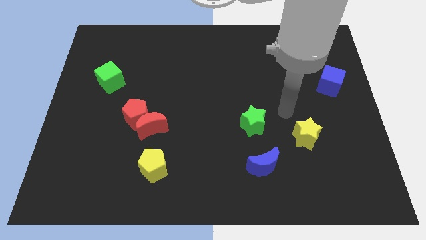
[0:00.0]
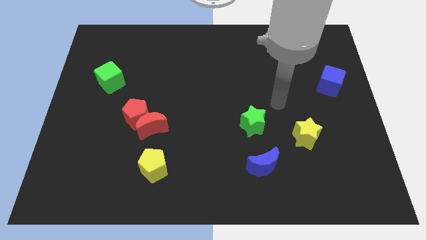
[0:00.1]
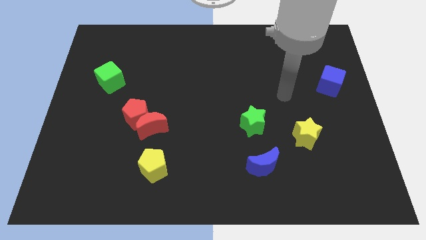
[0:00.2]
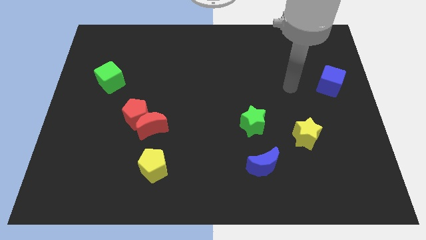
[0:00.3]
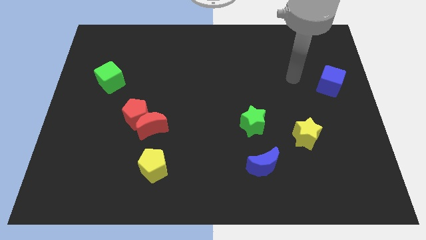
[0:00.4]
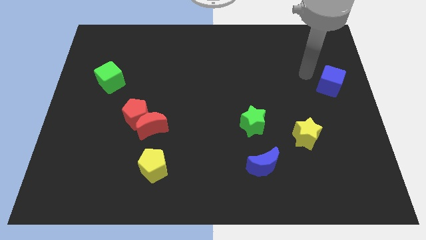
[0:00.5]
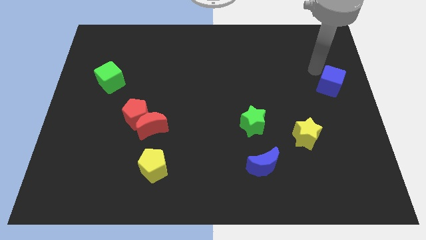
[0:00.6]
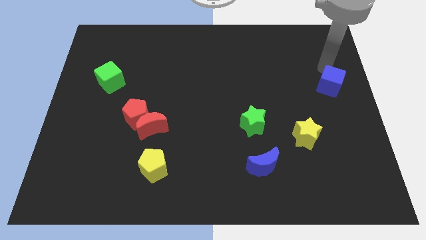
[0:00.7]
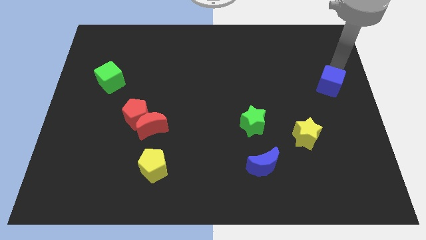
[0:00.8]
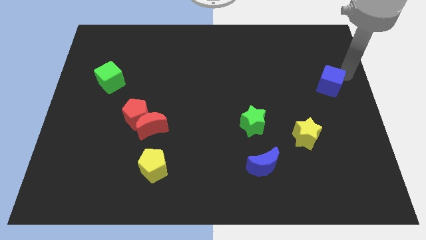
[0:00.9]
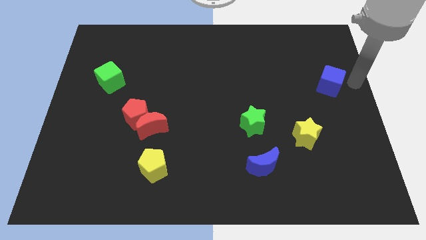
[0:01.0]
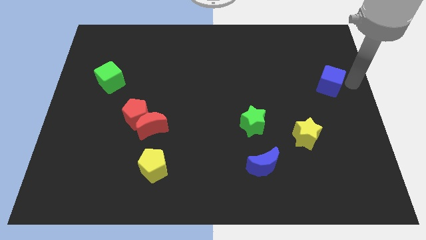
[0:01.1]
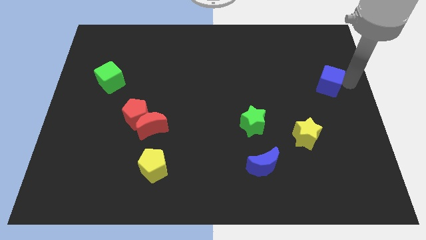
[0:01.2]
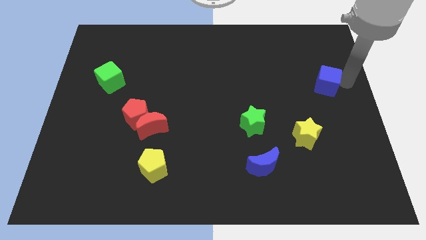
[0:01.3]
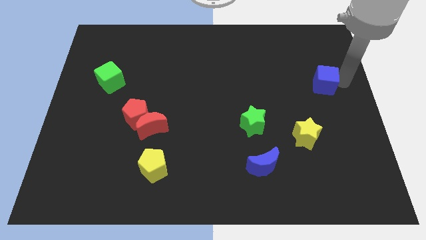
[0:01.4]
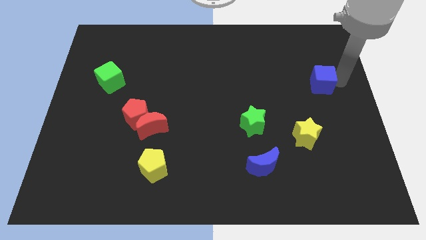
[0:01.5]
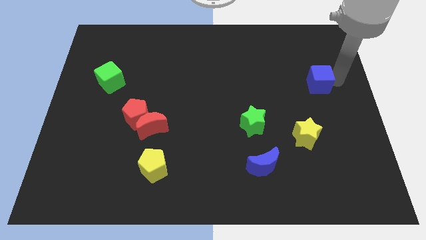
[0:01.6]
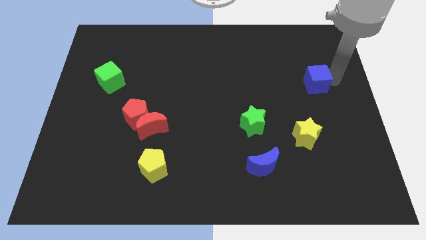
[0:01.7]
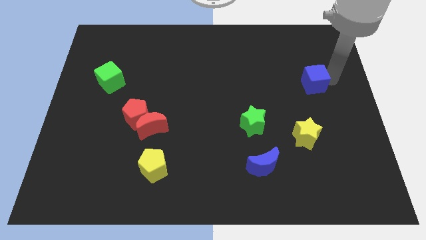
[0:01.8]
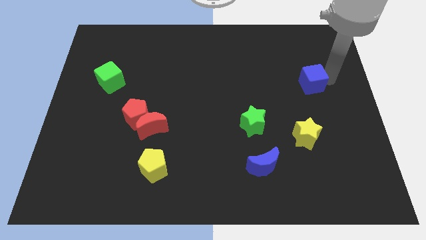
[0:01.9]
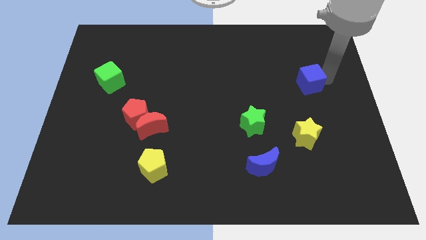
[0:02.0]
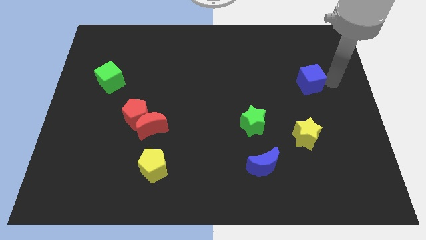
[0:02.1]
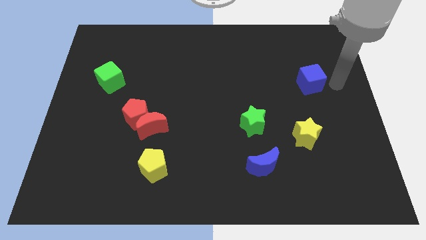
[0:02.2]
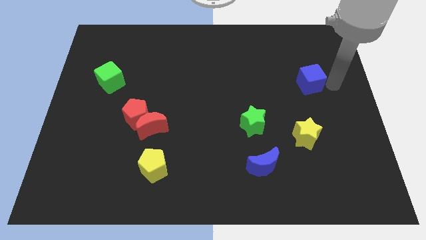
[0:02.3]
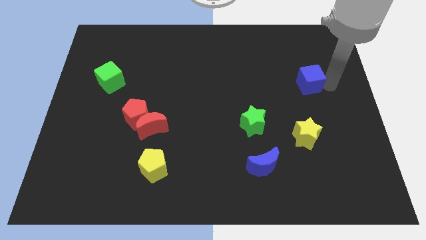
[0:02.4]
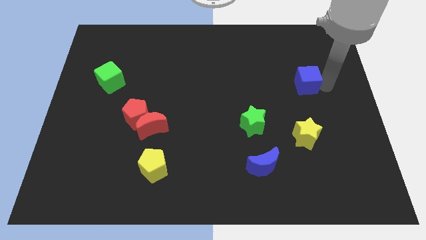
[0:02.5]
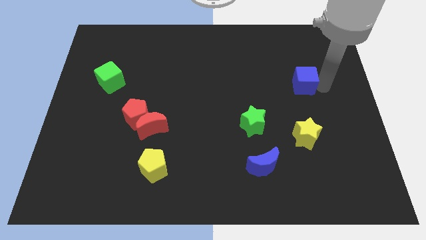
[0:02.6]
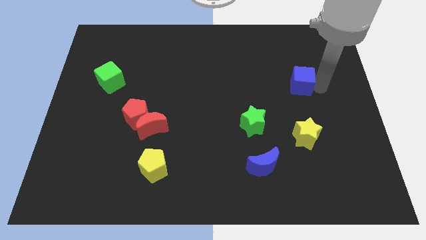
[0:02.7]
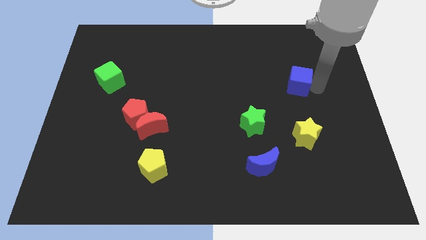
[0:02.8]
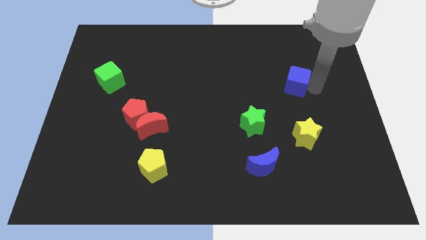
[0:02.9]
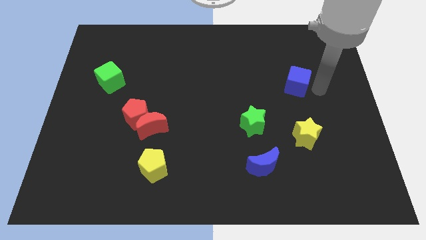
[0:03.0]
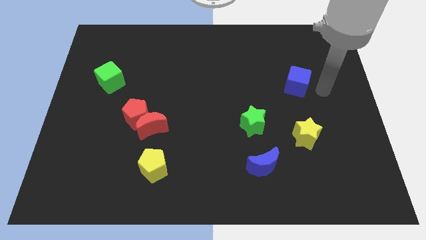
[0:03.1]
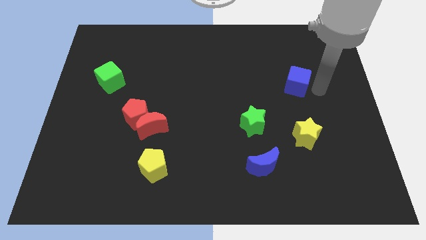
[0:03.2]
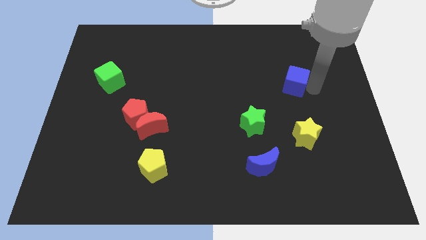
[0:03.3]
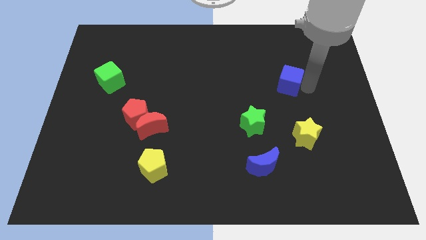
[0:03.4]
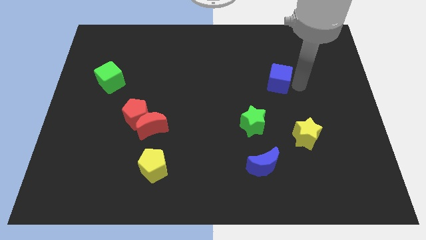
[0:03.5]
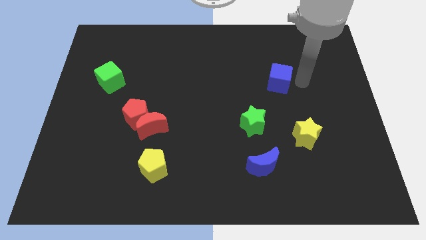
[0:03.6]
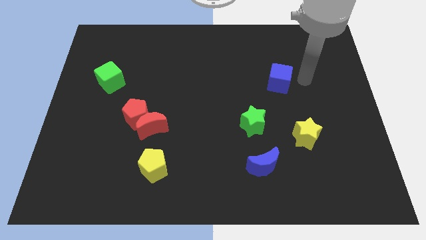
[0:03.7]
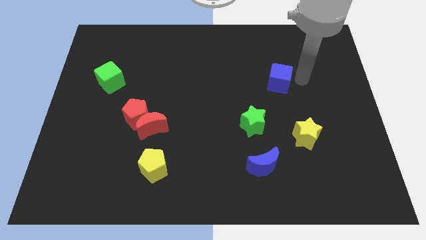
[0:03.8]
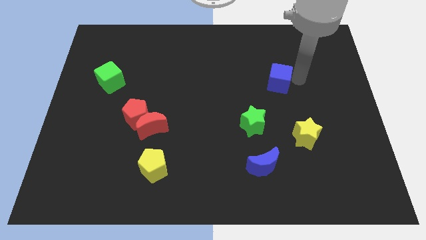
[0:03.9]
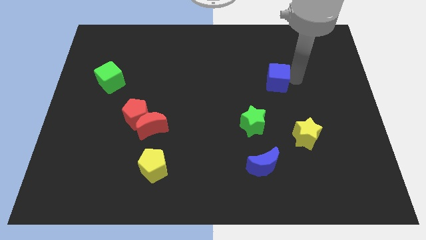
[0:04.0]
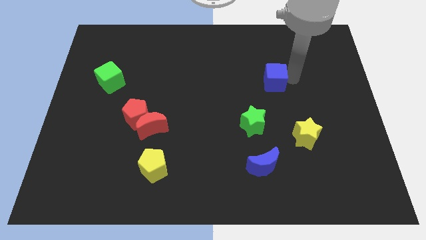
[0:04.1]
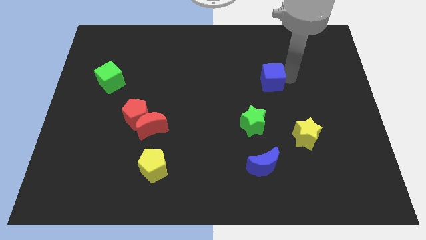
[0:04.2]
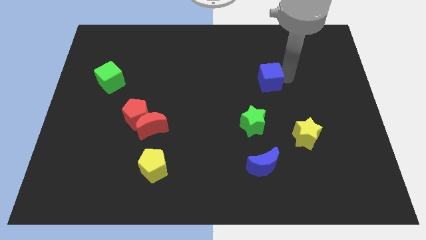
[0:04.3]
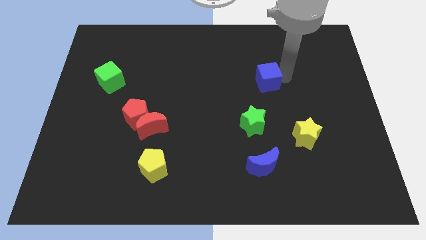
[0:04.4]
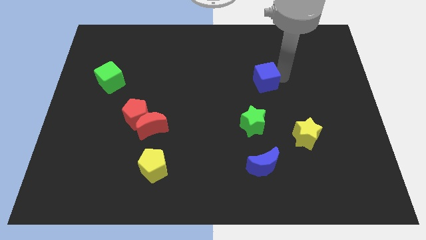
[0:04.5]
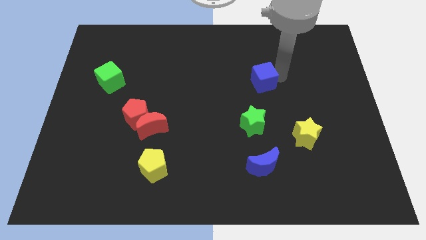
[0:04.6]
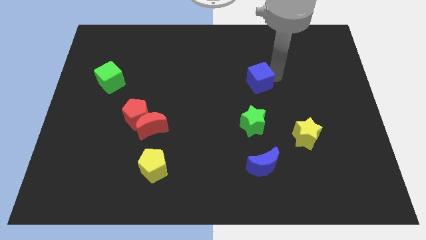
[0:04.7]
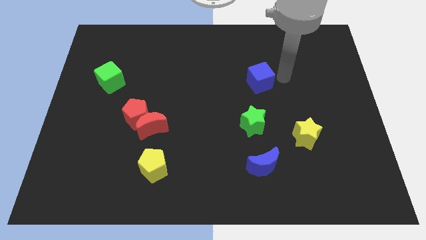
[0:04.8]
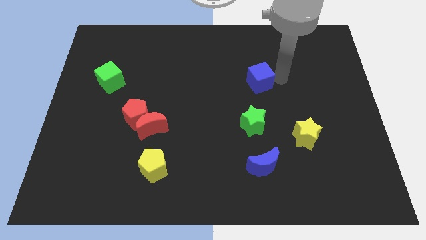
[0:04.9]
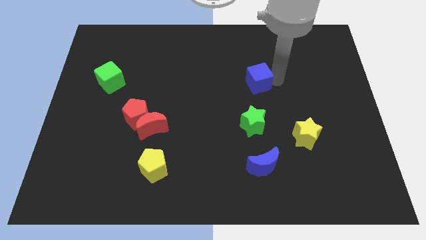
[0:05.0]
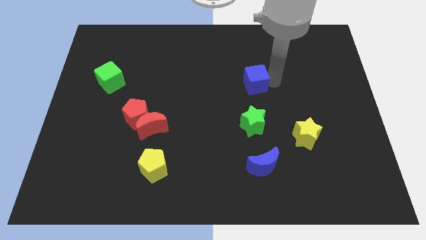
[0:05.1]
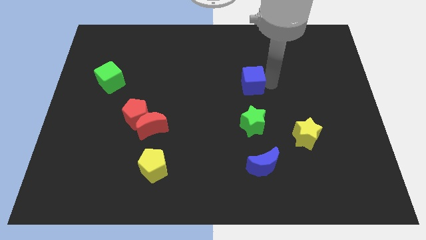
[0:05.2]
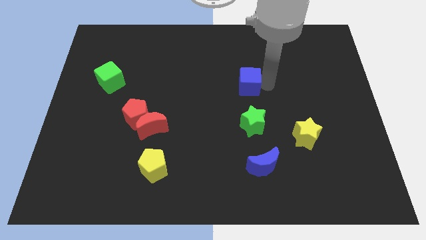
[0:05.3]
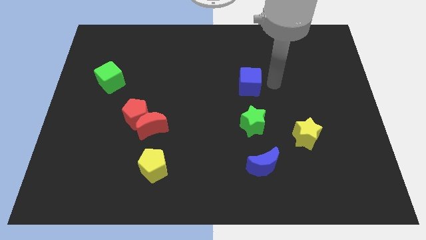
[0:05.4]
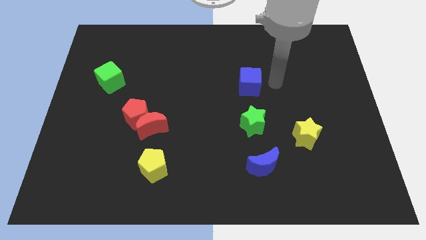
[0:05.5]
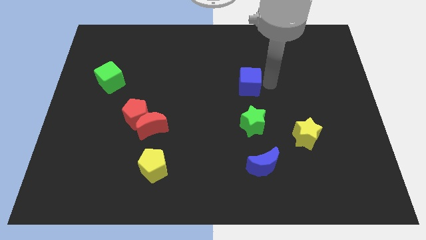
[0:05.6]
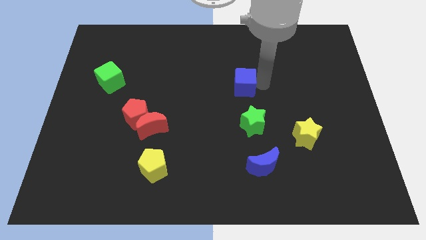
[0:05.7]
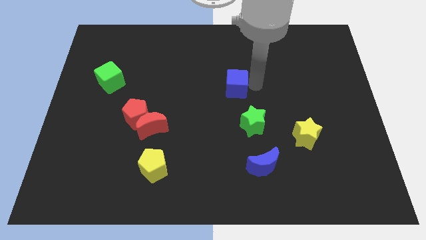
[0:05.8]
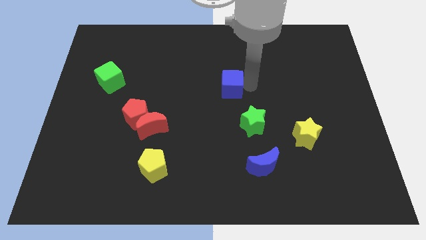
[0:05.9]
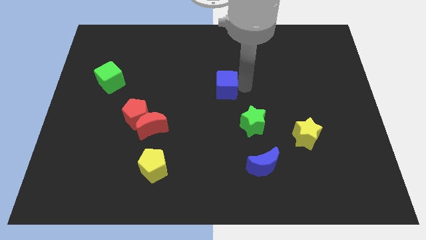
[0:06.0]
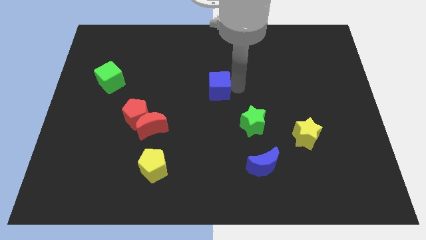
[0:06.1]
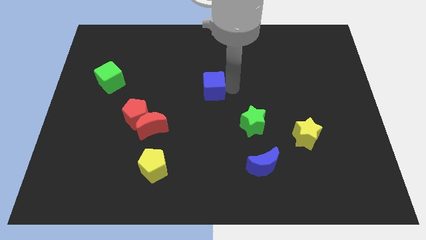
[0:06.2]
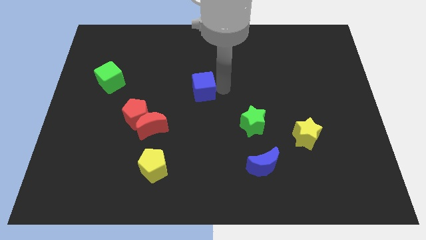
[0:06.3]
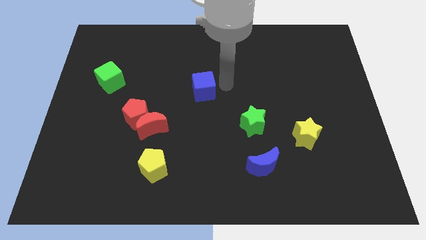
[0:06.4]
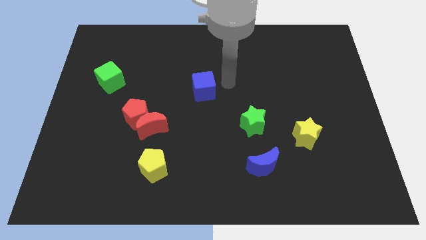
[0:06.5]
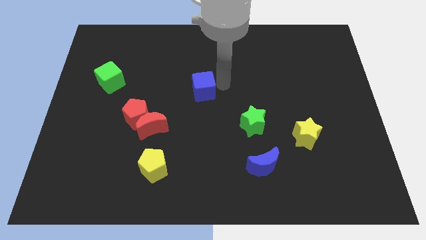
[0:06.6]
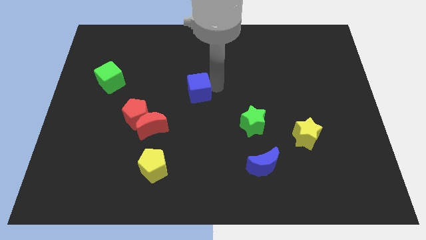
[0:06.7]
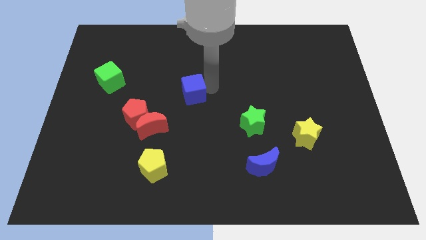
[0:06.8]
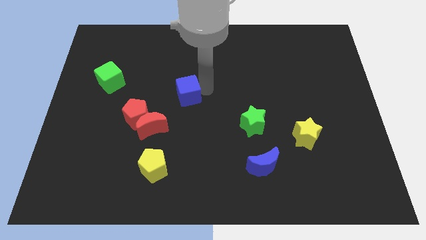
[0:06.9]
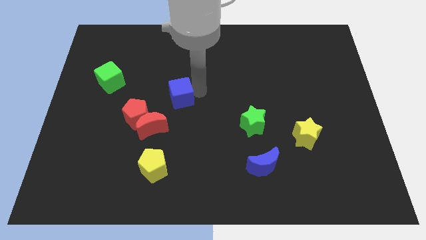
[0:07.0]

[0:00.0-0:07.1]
push the blue cube to the top right of the red pentagon

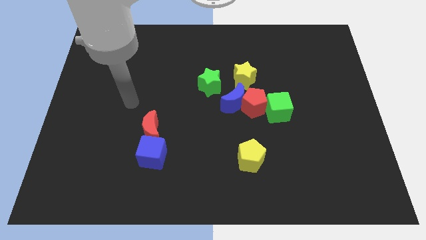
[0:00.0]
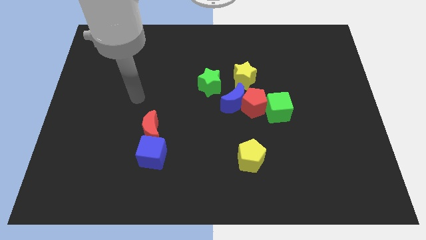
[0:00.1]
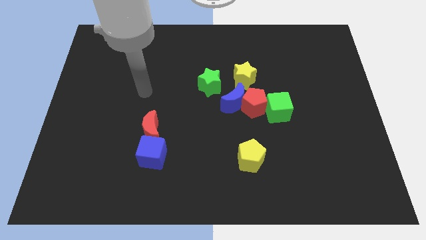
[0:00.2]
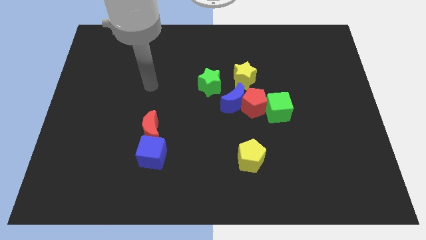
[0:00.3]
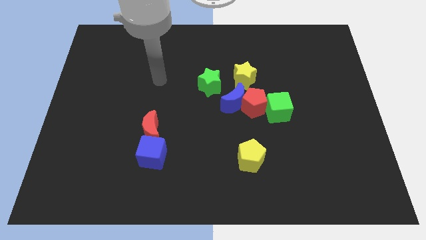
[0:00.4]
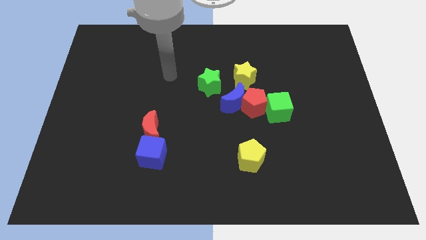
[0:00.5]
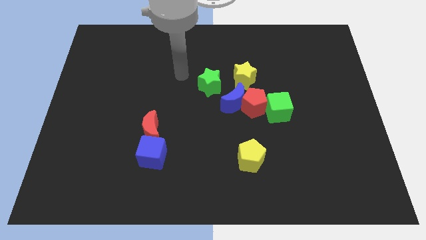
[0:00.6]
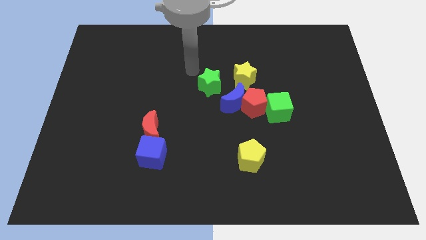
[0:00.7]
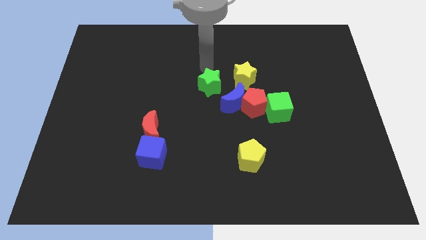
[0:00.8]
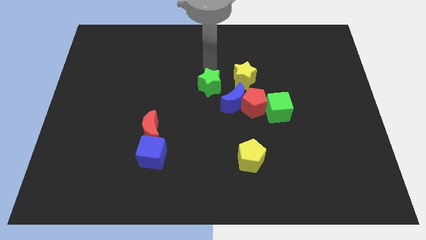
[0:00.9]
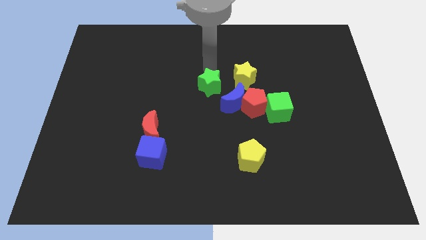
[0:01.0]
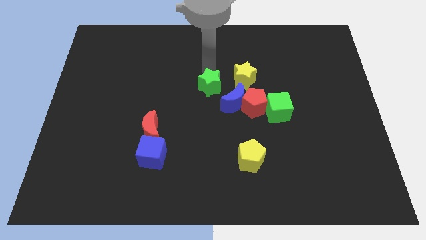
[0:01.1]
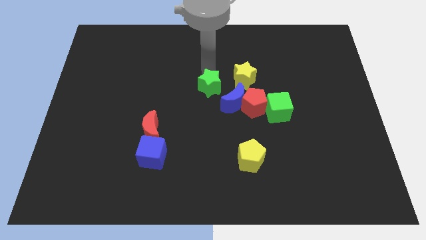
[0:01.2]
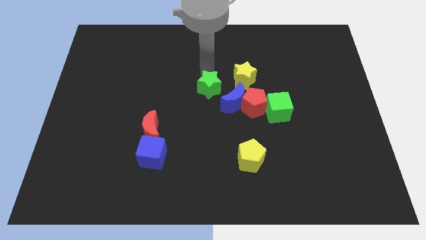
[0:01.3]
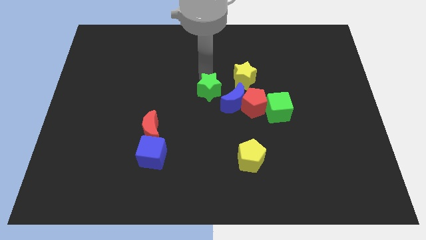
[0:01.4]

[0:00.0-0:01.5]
put the green star to the left of the red pentagon
